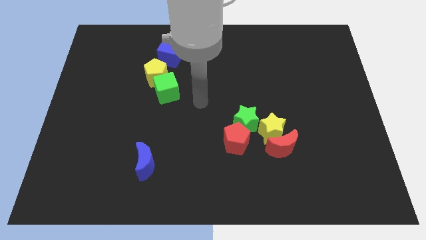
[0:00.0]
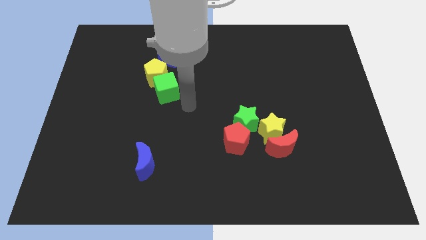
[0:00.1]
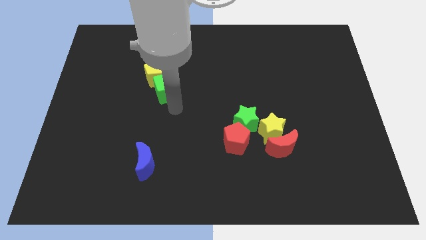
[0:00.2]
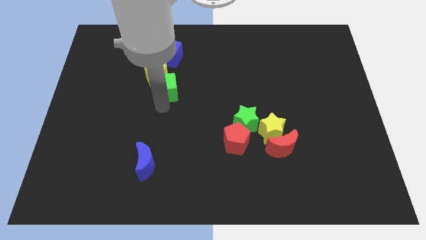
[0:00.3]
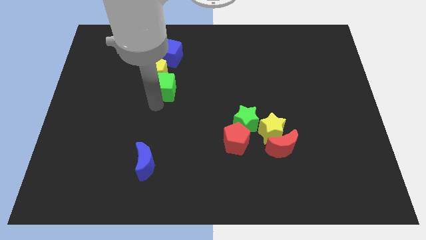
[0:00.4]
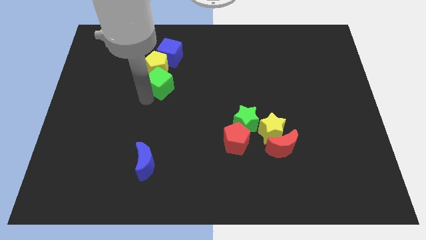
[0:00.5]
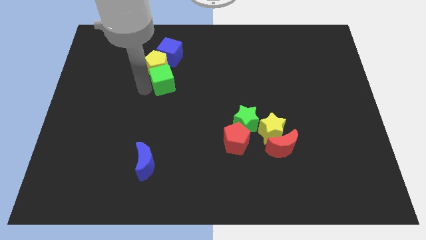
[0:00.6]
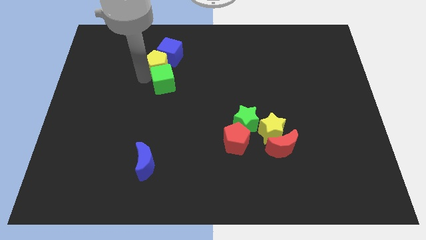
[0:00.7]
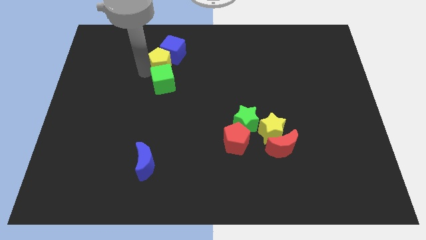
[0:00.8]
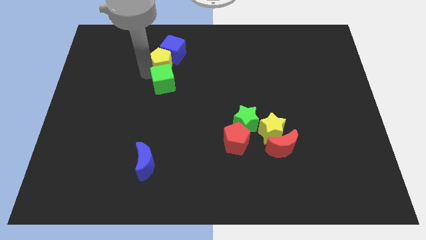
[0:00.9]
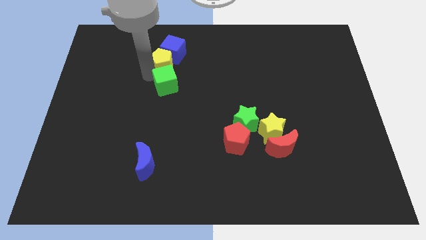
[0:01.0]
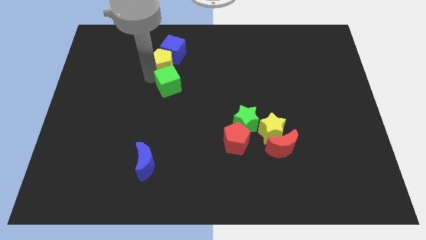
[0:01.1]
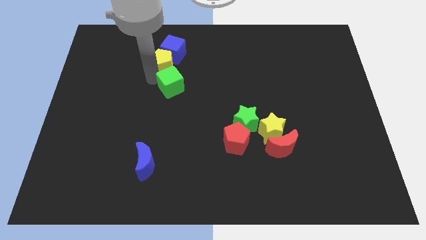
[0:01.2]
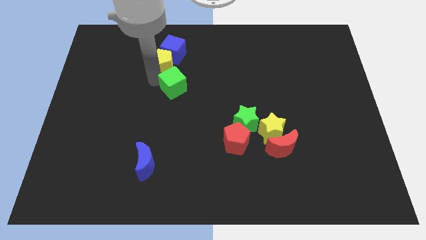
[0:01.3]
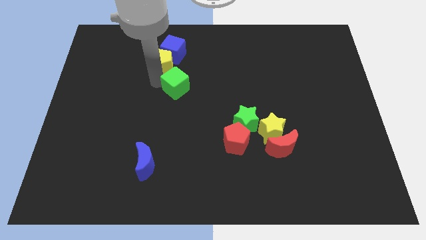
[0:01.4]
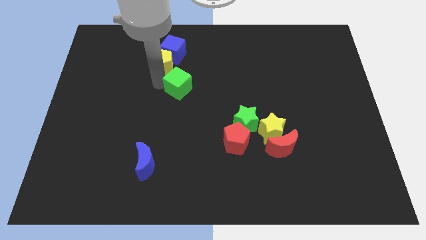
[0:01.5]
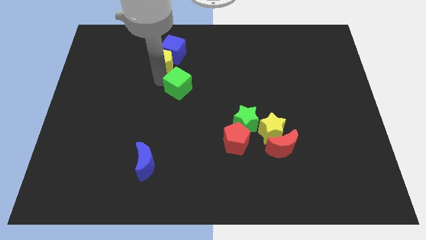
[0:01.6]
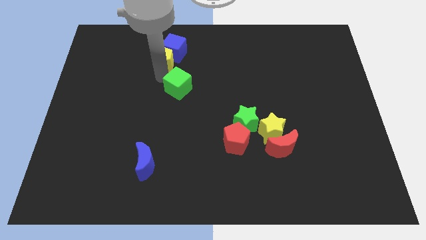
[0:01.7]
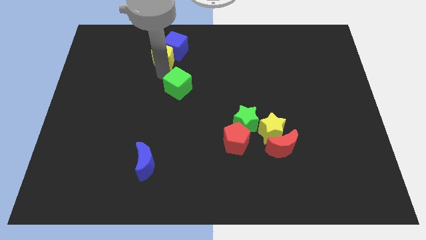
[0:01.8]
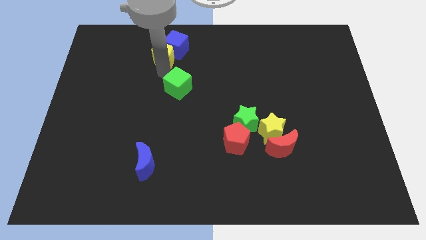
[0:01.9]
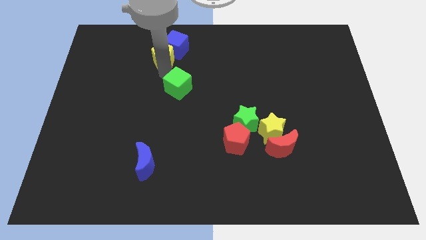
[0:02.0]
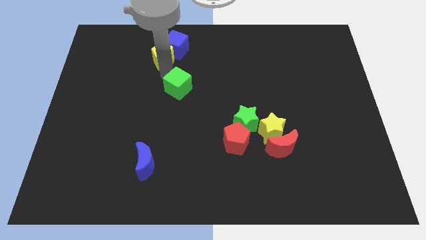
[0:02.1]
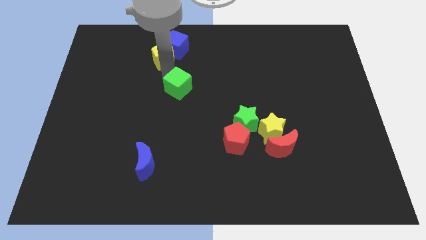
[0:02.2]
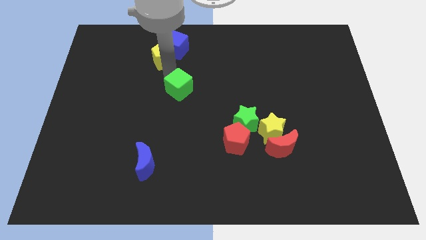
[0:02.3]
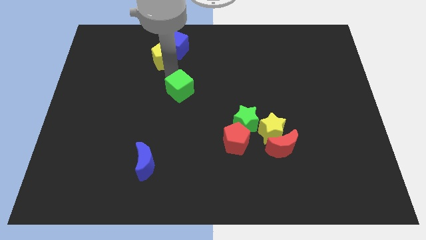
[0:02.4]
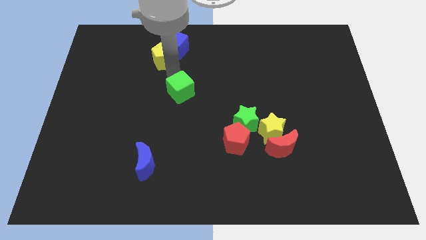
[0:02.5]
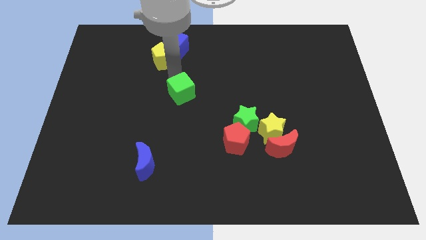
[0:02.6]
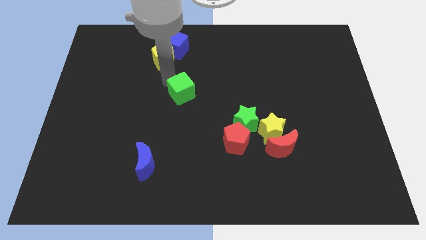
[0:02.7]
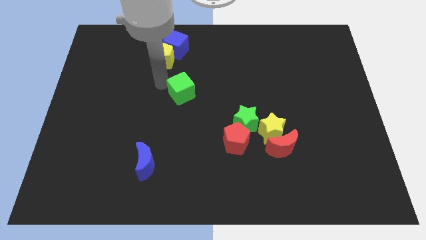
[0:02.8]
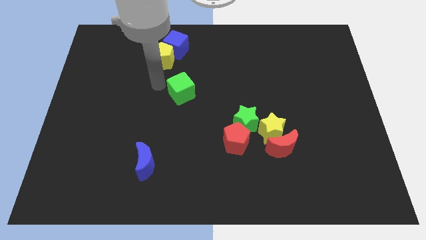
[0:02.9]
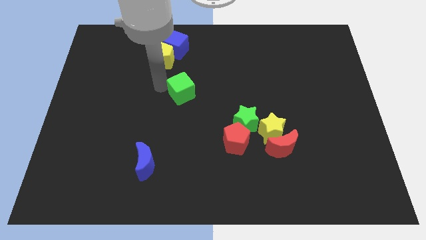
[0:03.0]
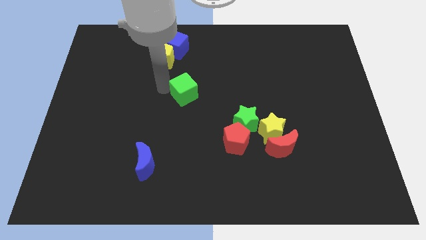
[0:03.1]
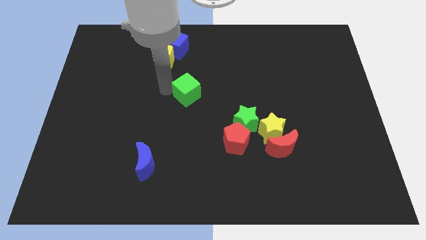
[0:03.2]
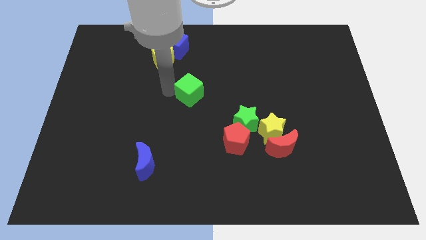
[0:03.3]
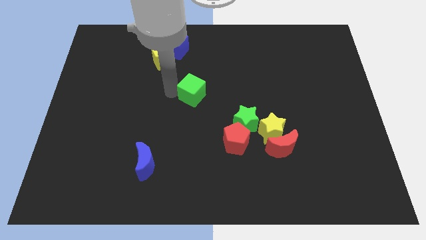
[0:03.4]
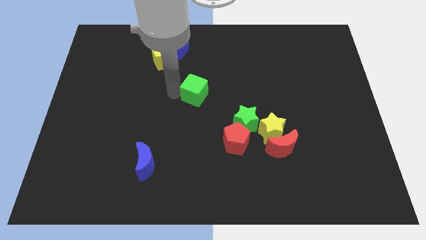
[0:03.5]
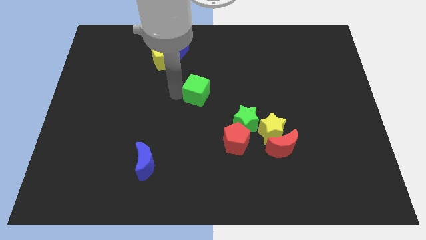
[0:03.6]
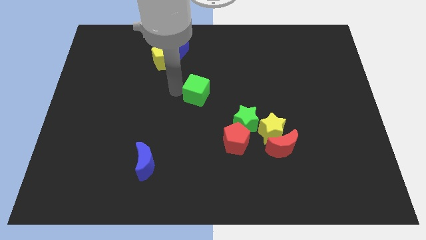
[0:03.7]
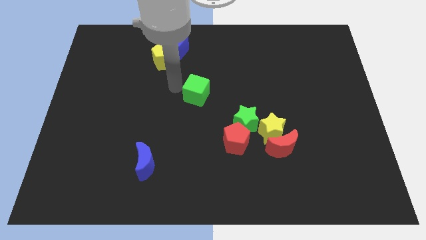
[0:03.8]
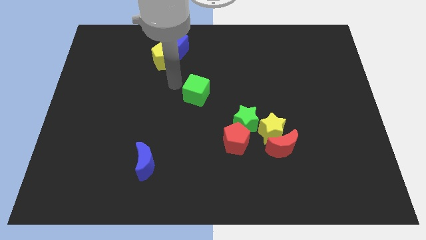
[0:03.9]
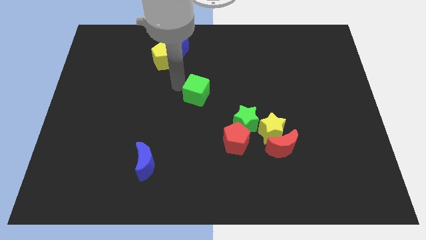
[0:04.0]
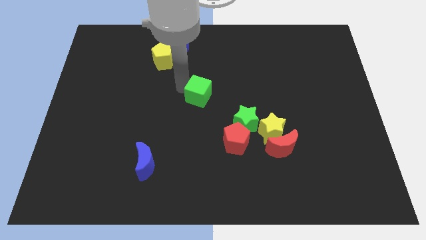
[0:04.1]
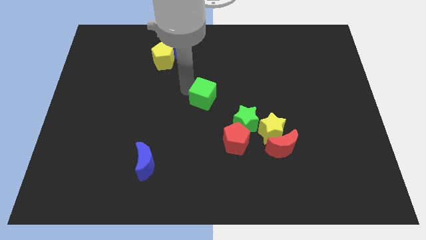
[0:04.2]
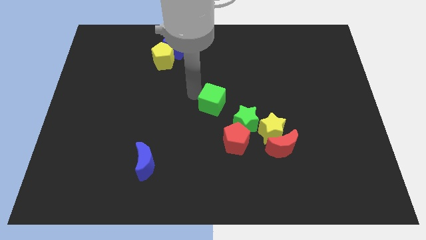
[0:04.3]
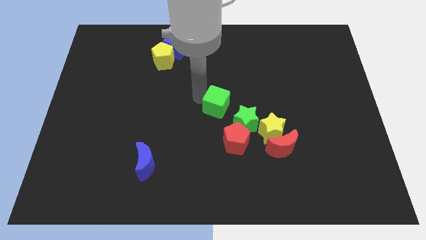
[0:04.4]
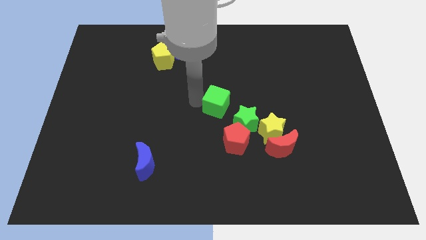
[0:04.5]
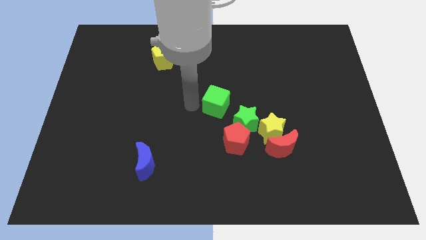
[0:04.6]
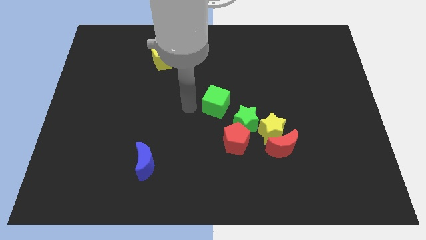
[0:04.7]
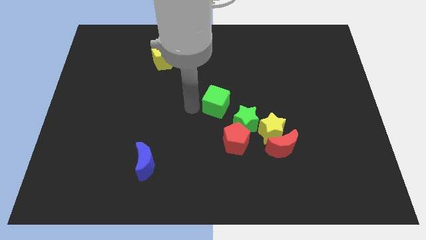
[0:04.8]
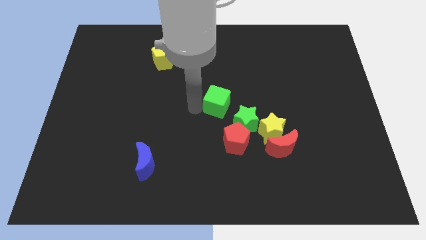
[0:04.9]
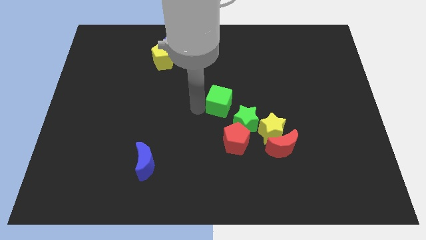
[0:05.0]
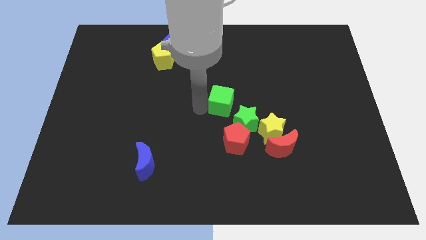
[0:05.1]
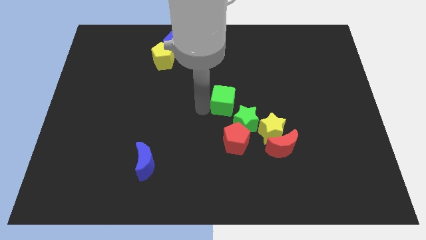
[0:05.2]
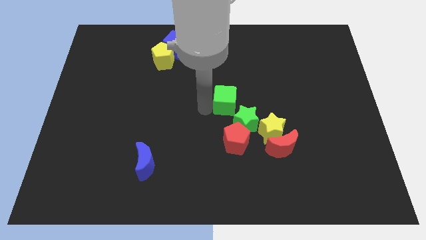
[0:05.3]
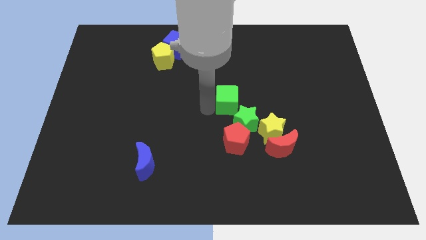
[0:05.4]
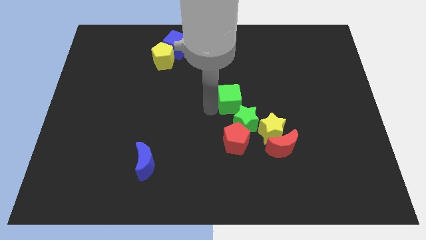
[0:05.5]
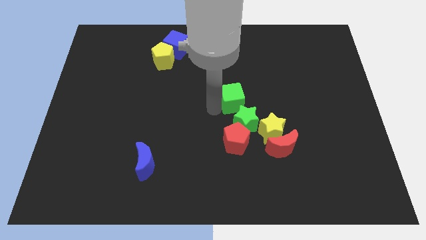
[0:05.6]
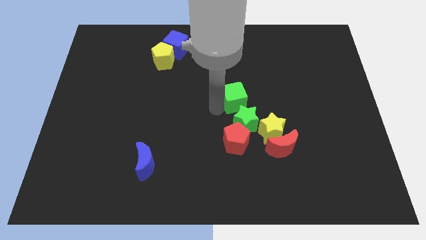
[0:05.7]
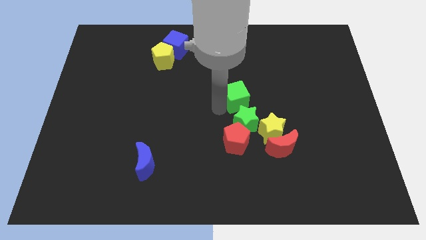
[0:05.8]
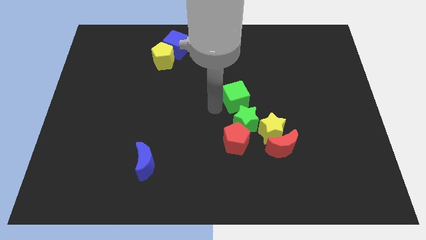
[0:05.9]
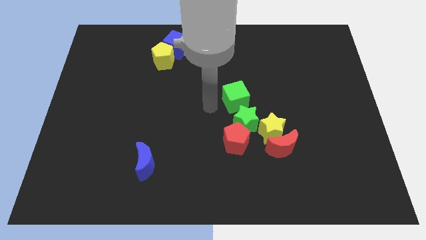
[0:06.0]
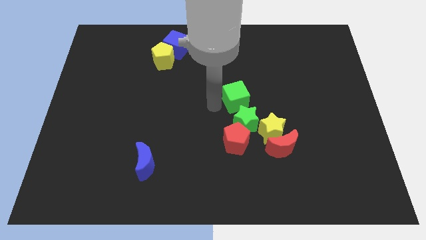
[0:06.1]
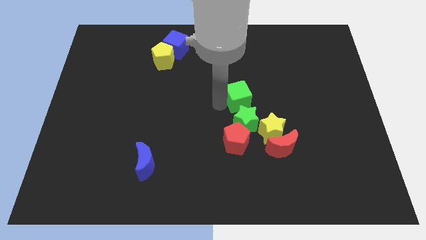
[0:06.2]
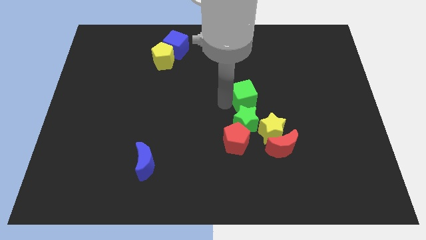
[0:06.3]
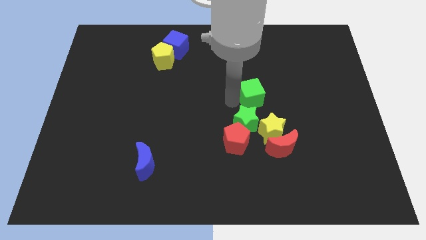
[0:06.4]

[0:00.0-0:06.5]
slide the green cube right

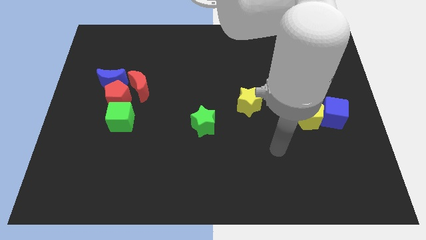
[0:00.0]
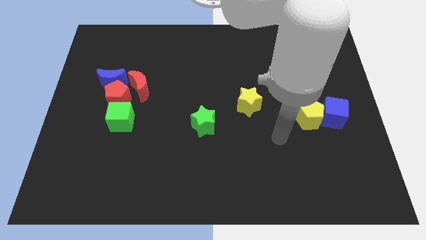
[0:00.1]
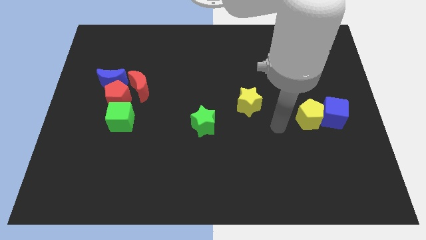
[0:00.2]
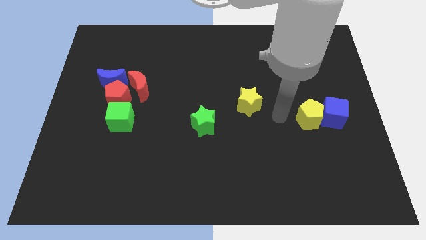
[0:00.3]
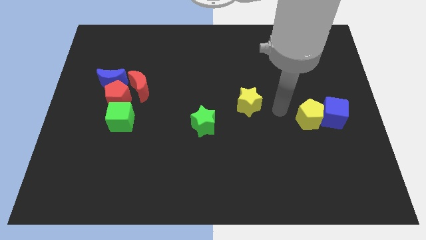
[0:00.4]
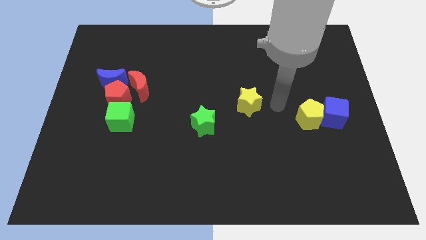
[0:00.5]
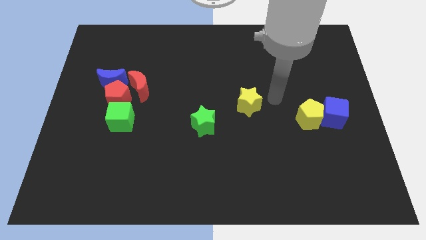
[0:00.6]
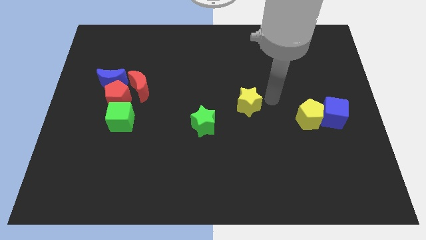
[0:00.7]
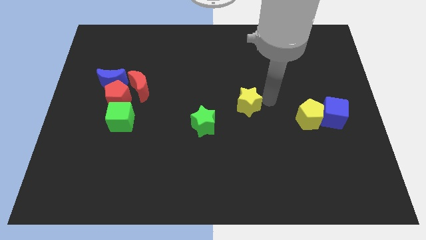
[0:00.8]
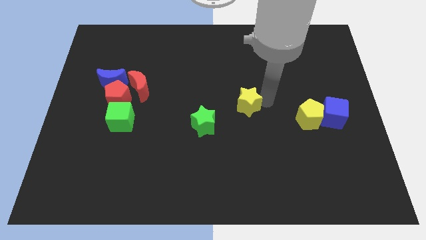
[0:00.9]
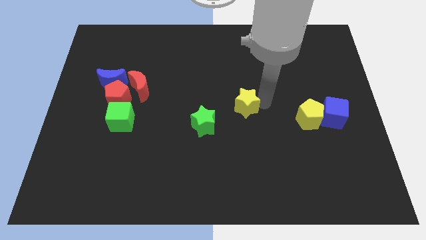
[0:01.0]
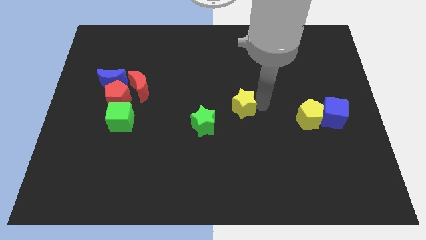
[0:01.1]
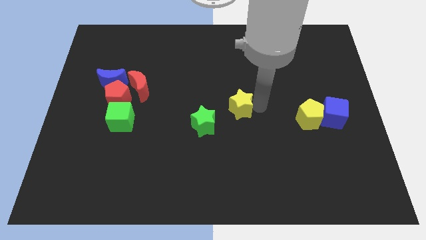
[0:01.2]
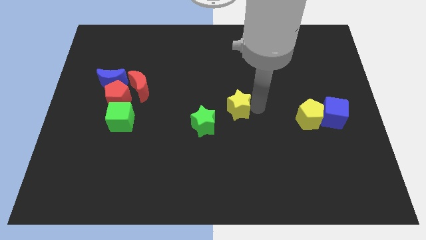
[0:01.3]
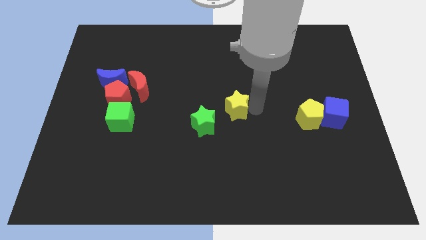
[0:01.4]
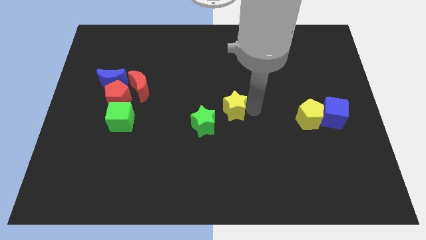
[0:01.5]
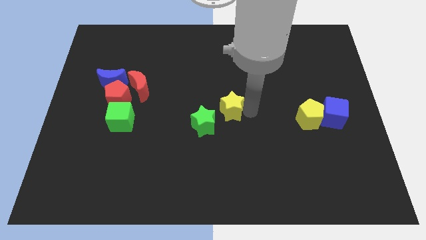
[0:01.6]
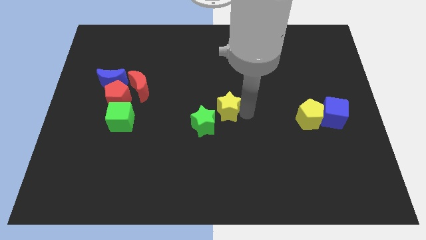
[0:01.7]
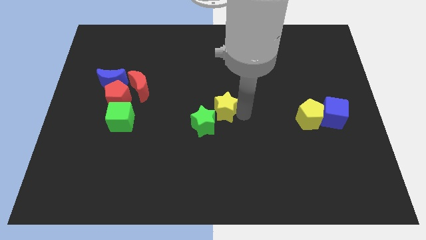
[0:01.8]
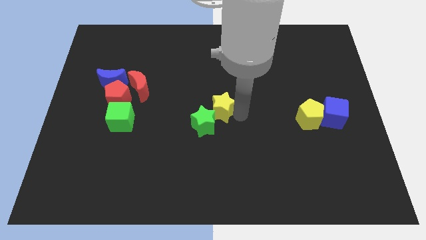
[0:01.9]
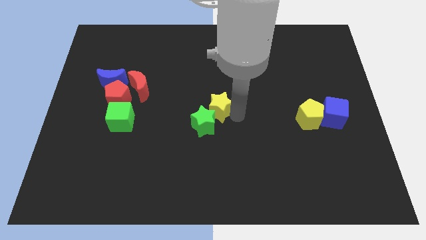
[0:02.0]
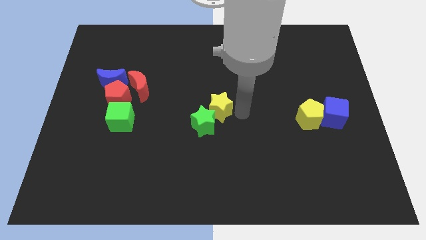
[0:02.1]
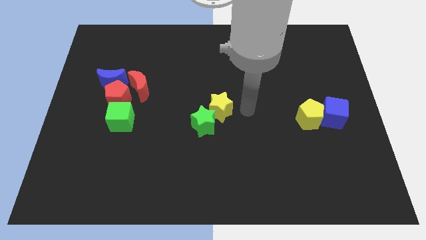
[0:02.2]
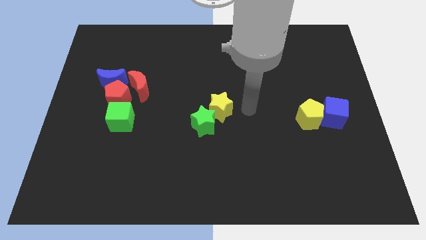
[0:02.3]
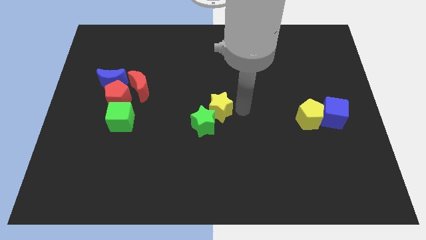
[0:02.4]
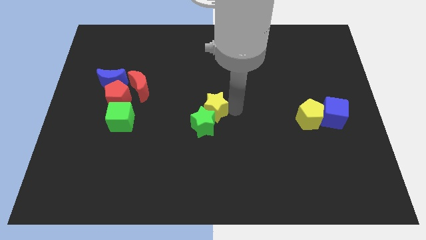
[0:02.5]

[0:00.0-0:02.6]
slide the yellow star left somewhat
